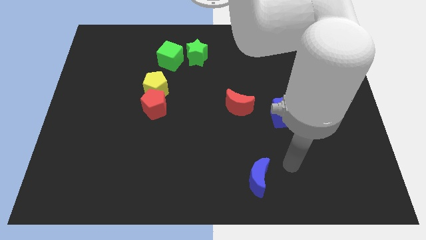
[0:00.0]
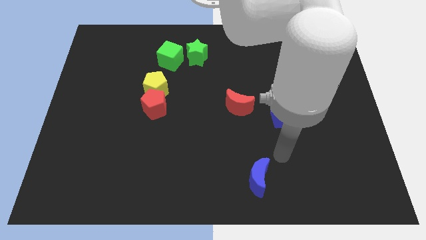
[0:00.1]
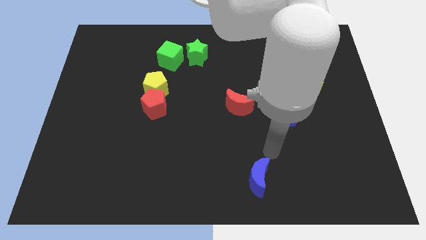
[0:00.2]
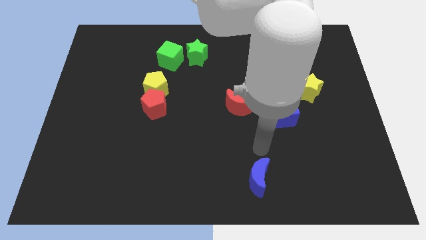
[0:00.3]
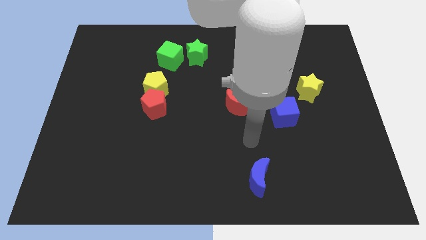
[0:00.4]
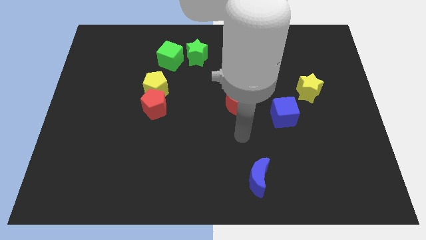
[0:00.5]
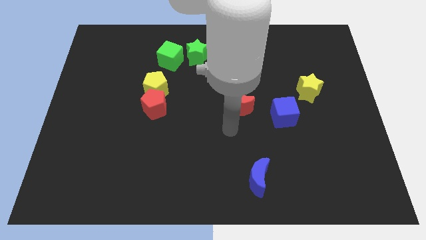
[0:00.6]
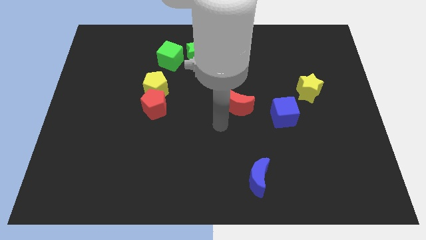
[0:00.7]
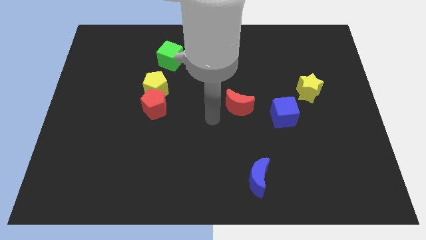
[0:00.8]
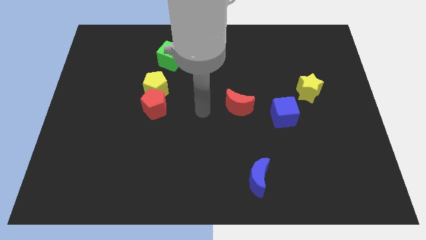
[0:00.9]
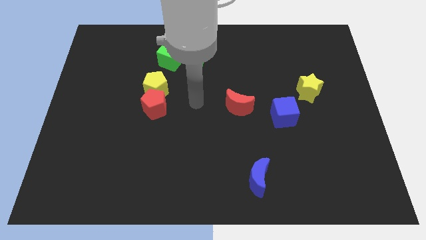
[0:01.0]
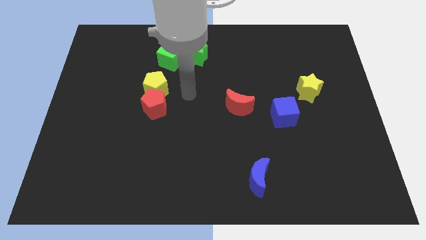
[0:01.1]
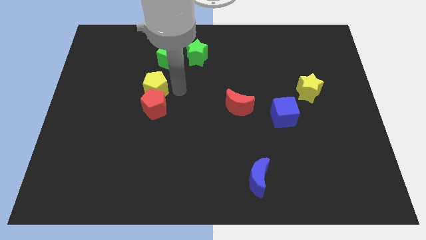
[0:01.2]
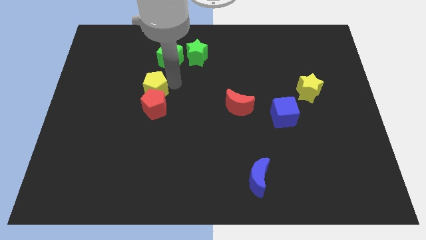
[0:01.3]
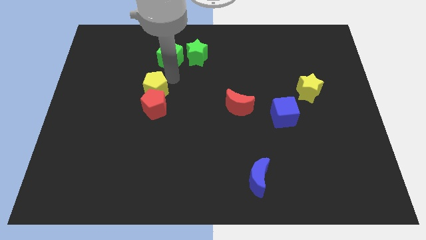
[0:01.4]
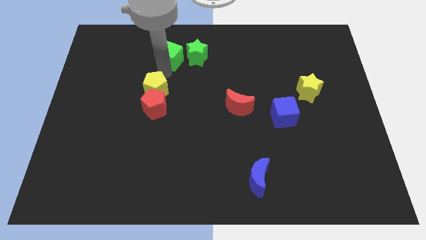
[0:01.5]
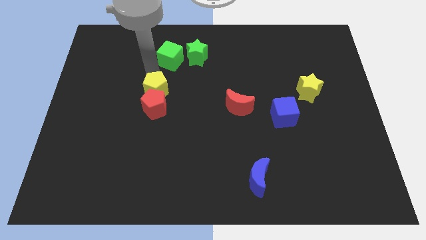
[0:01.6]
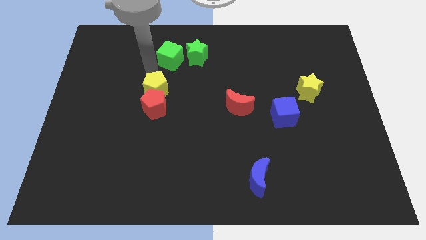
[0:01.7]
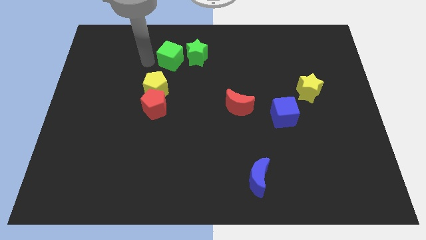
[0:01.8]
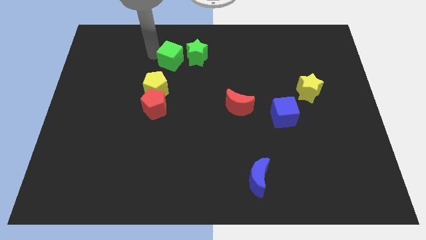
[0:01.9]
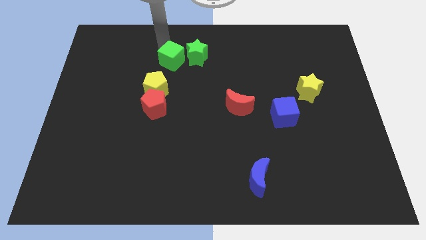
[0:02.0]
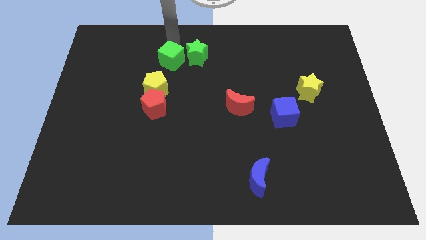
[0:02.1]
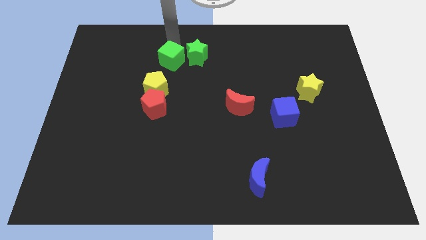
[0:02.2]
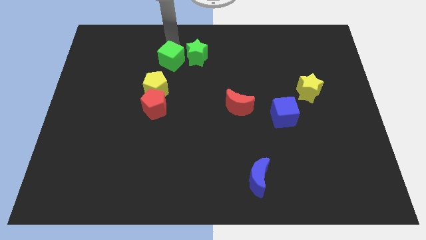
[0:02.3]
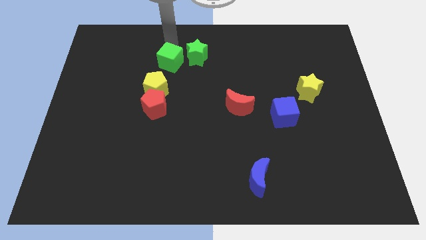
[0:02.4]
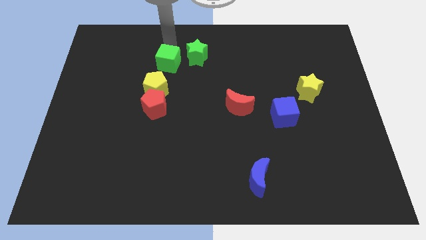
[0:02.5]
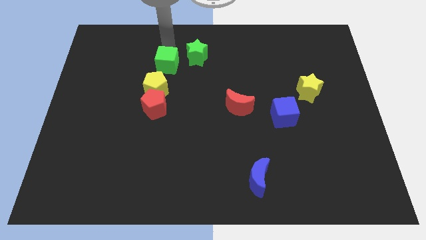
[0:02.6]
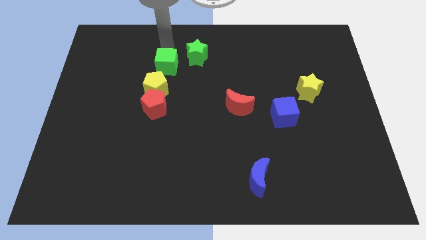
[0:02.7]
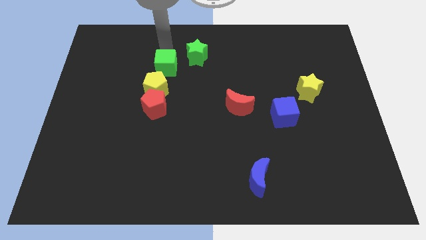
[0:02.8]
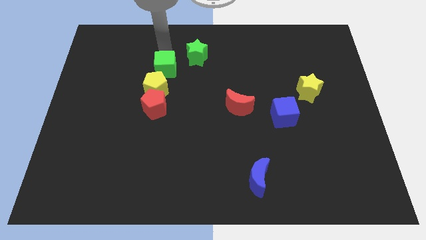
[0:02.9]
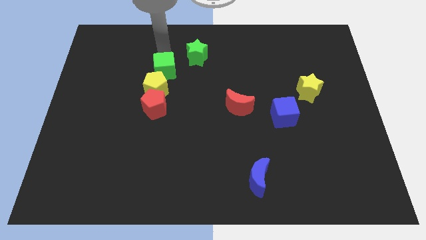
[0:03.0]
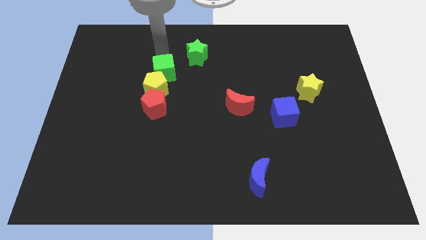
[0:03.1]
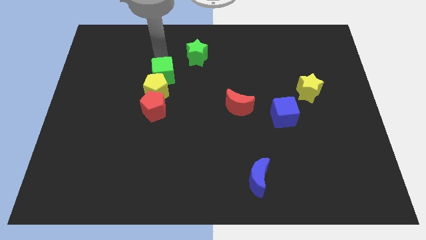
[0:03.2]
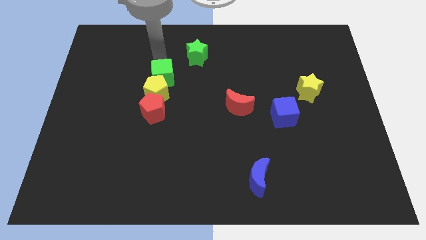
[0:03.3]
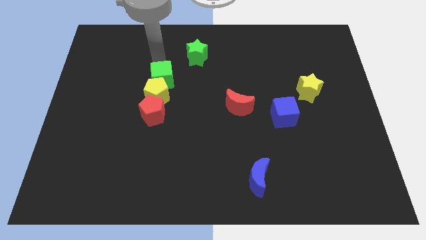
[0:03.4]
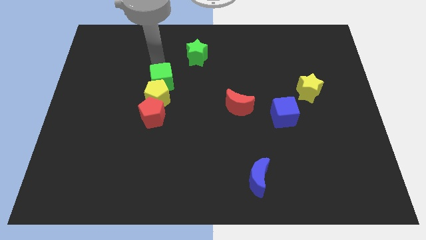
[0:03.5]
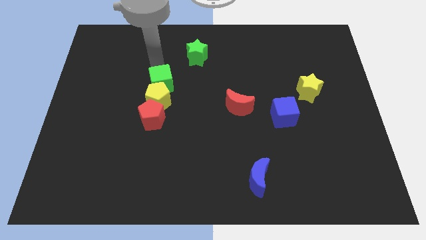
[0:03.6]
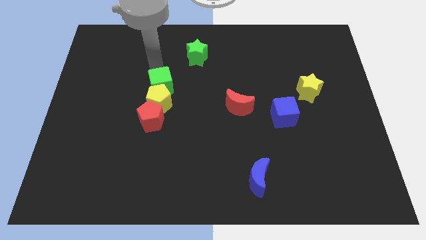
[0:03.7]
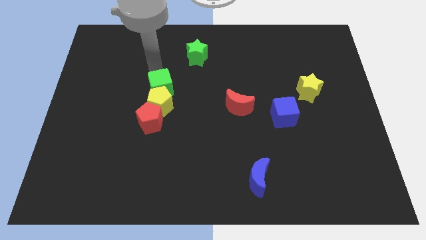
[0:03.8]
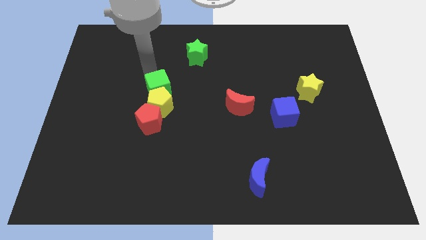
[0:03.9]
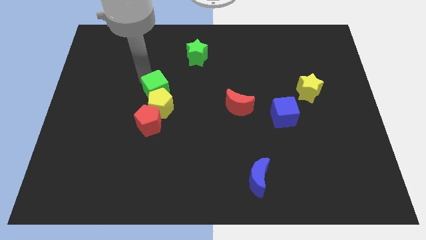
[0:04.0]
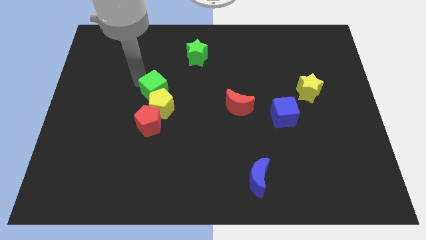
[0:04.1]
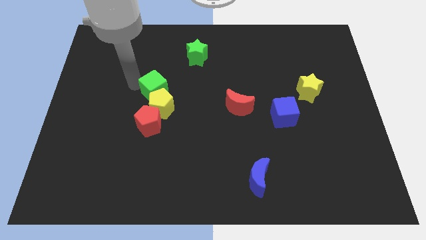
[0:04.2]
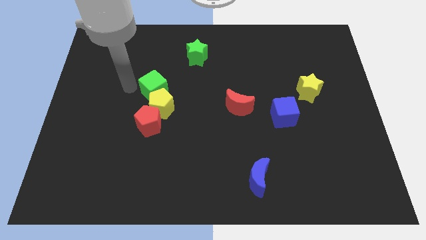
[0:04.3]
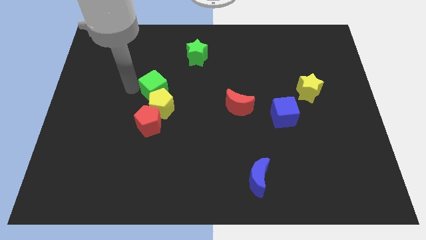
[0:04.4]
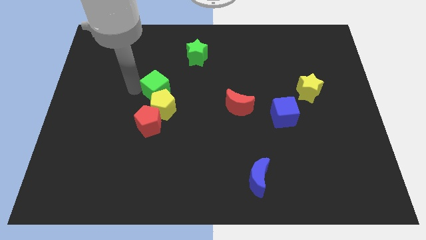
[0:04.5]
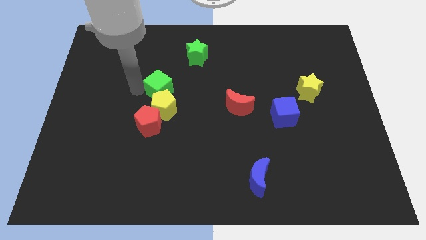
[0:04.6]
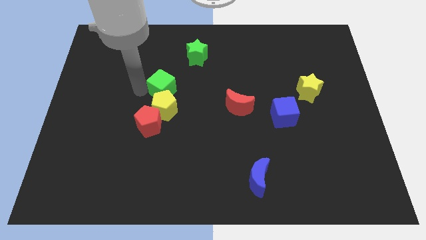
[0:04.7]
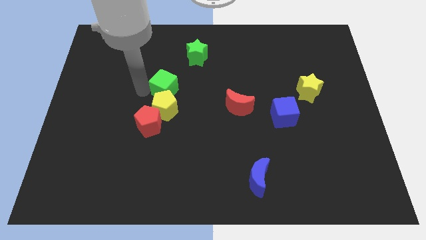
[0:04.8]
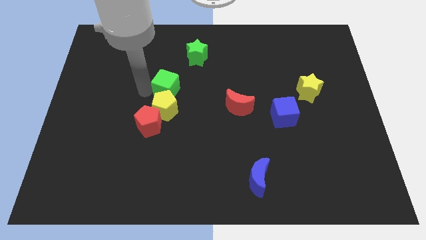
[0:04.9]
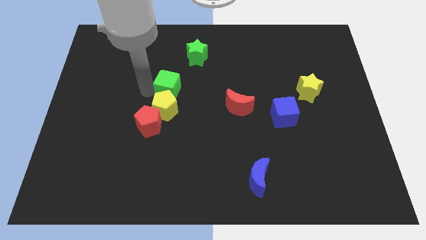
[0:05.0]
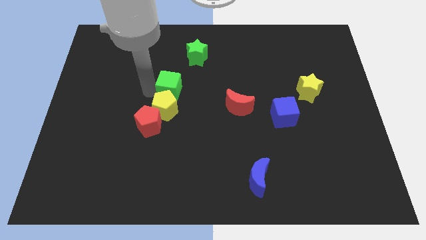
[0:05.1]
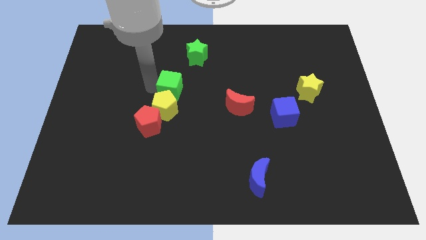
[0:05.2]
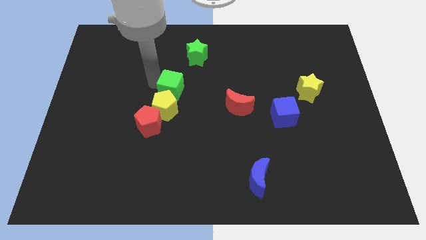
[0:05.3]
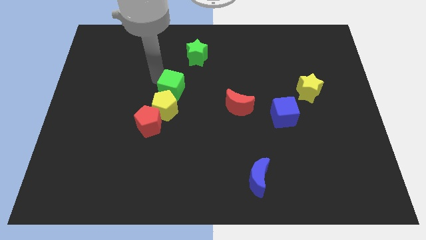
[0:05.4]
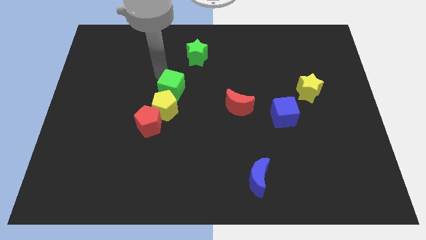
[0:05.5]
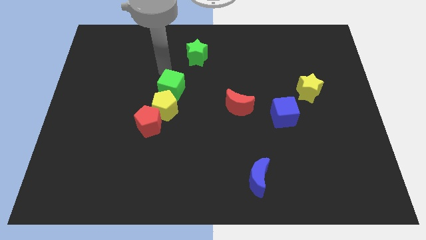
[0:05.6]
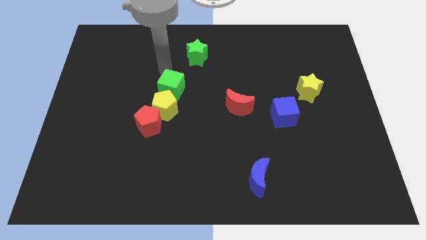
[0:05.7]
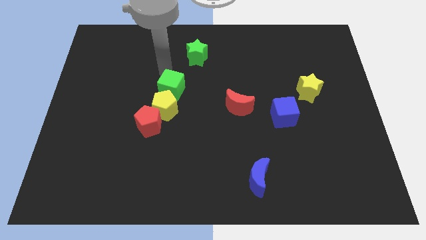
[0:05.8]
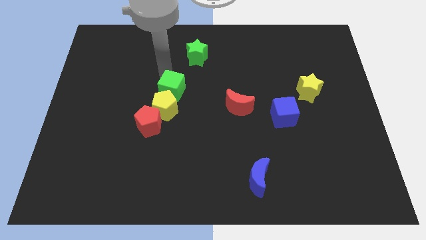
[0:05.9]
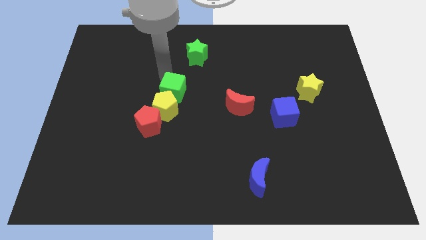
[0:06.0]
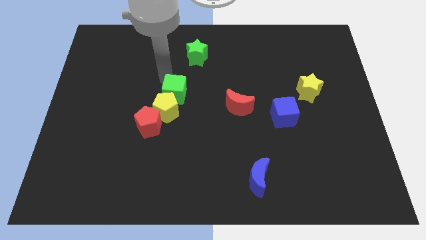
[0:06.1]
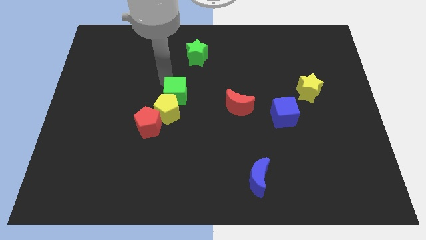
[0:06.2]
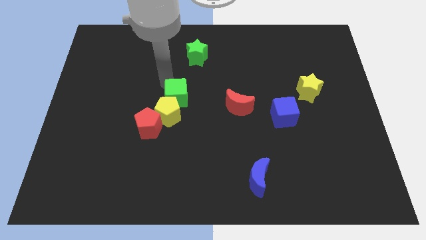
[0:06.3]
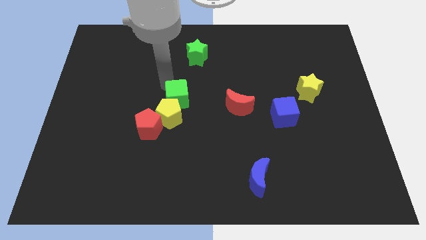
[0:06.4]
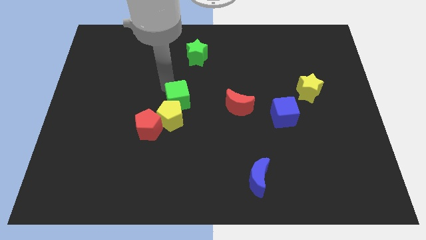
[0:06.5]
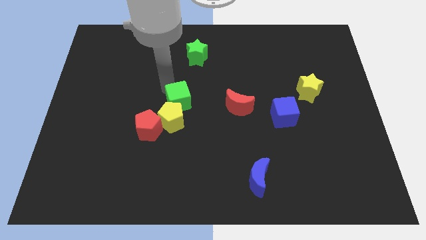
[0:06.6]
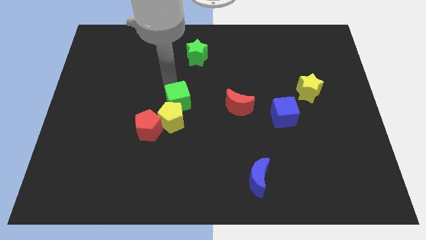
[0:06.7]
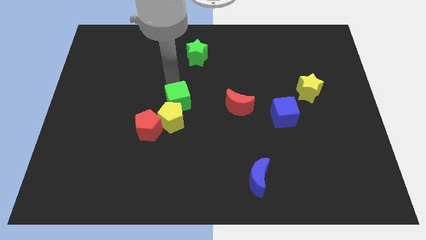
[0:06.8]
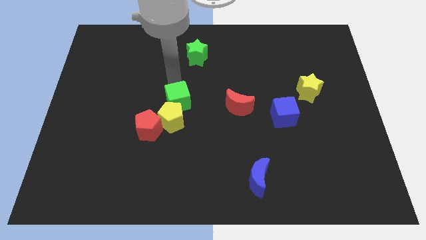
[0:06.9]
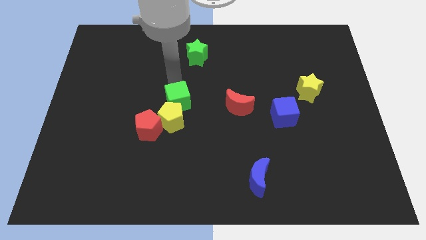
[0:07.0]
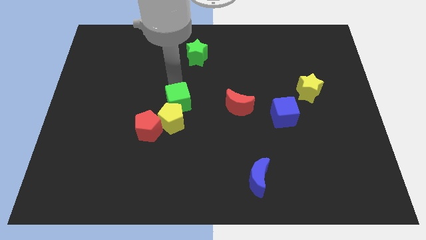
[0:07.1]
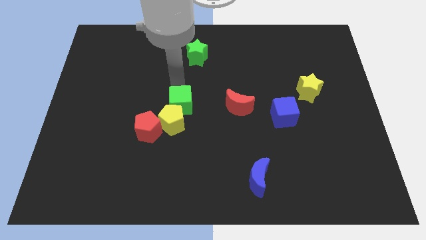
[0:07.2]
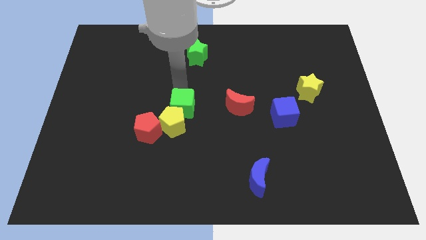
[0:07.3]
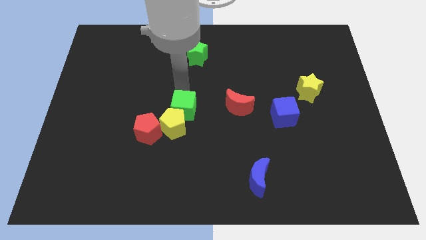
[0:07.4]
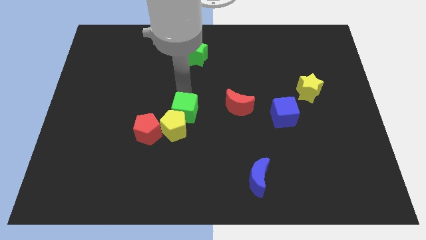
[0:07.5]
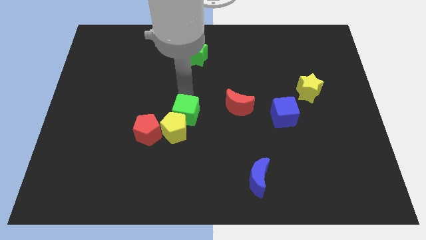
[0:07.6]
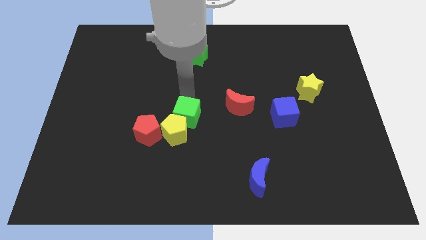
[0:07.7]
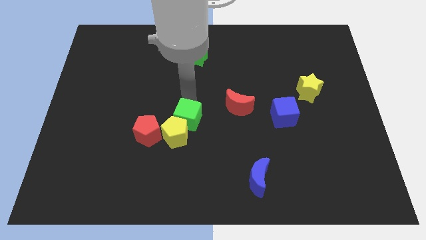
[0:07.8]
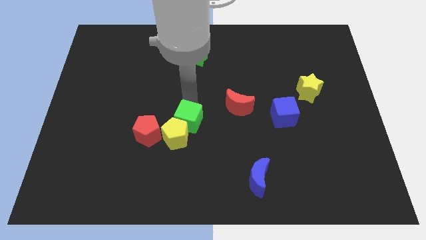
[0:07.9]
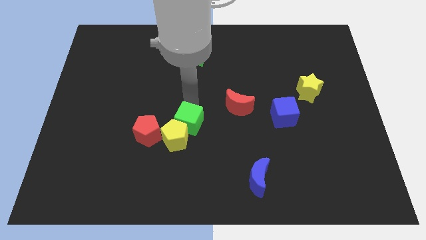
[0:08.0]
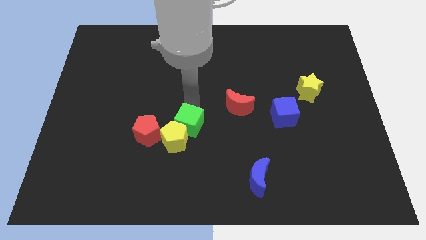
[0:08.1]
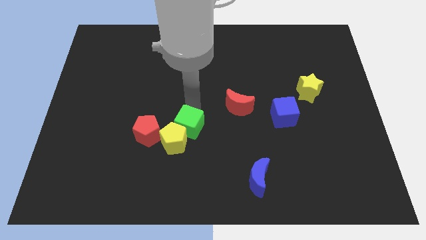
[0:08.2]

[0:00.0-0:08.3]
slide the green cube downwards
